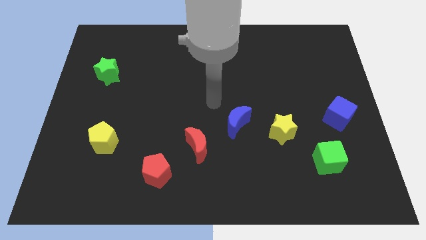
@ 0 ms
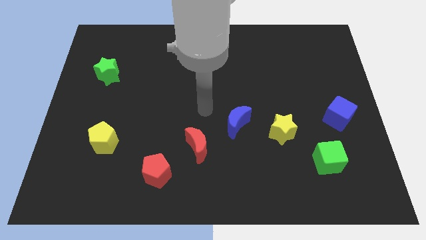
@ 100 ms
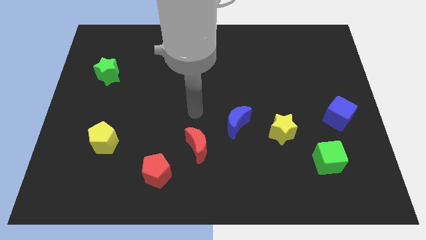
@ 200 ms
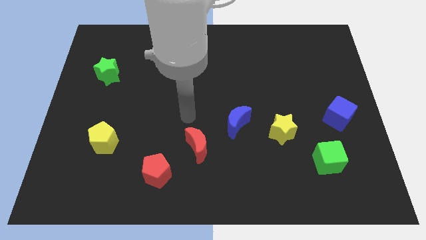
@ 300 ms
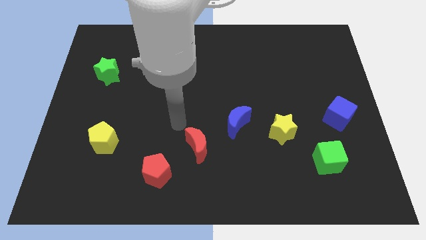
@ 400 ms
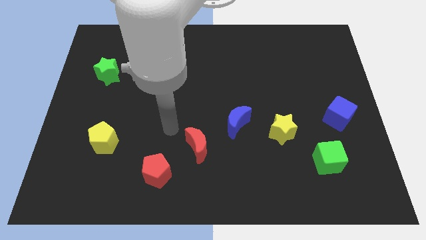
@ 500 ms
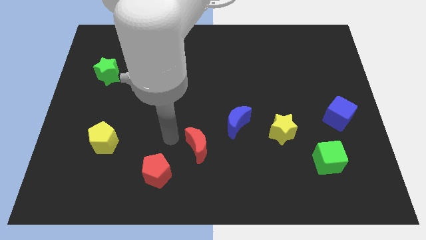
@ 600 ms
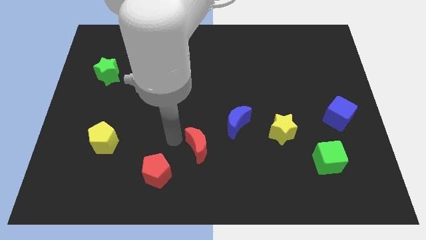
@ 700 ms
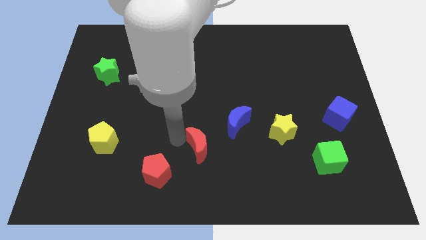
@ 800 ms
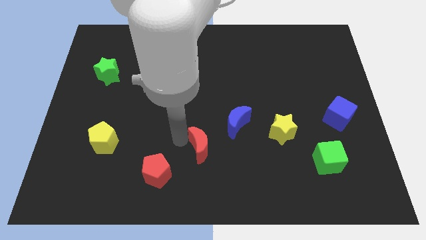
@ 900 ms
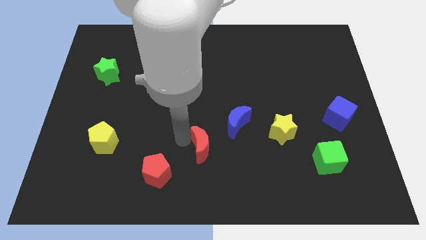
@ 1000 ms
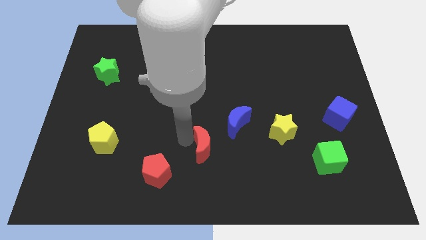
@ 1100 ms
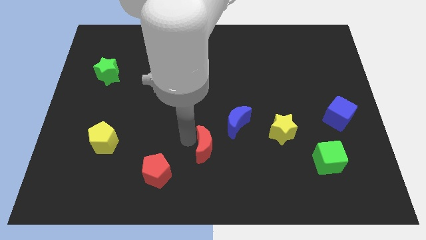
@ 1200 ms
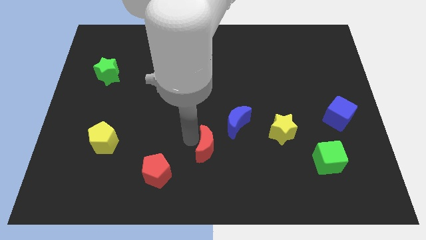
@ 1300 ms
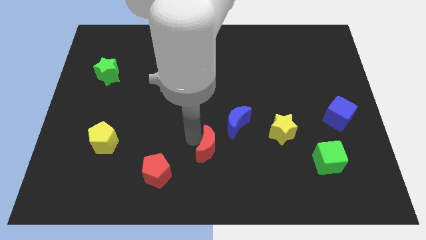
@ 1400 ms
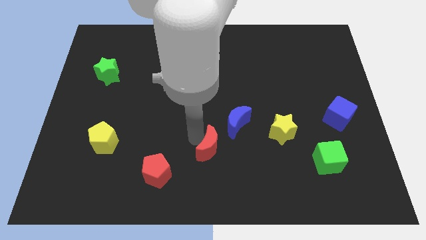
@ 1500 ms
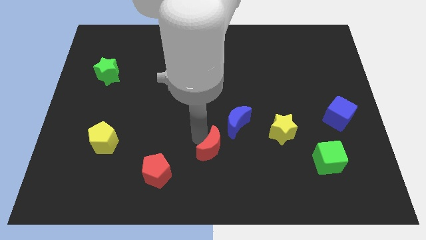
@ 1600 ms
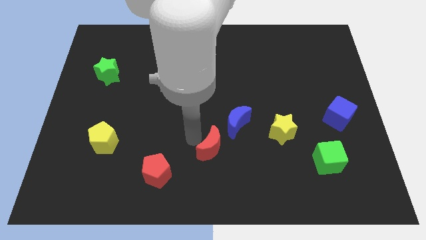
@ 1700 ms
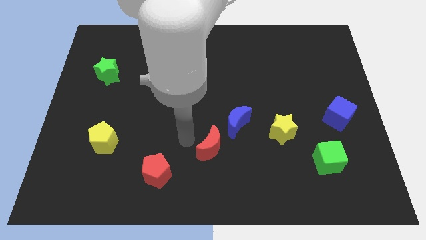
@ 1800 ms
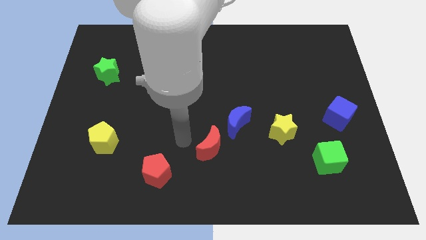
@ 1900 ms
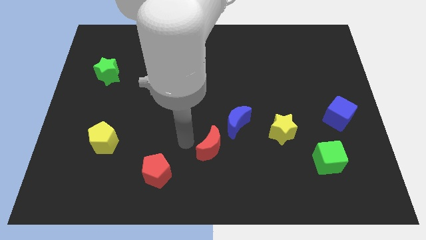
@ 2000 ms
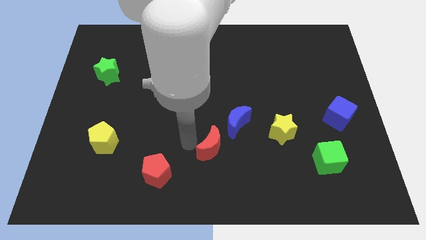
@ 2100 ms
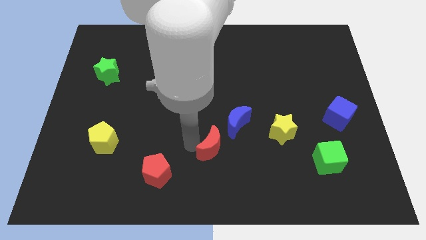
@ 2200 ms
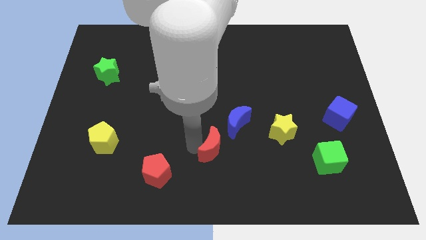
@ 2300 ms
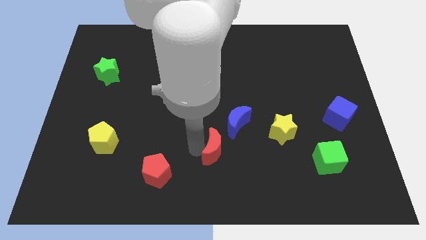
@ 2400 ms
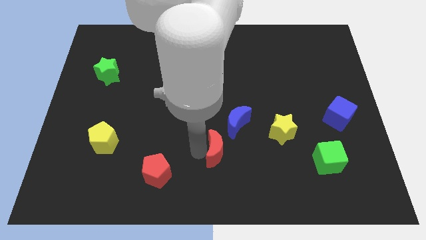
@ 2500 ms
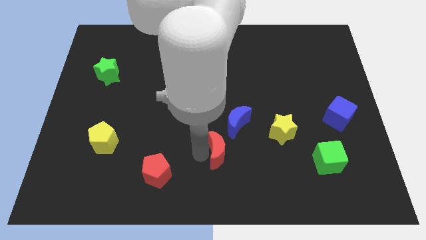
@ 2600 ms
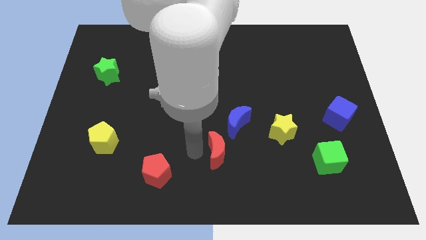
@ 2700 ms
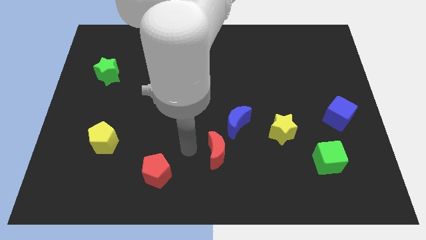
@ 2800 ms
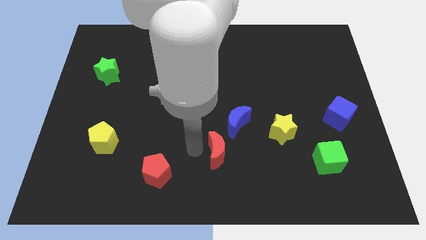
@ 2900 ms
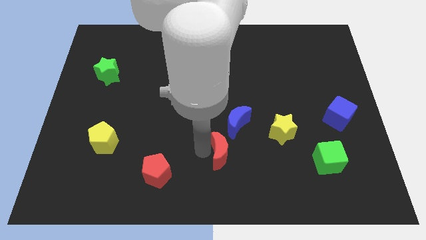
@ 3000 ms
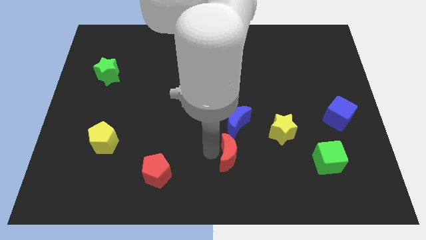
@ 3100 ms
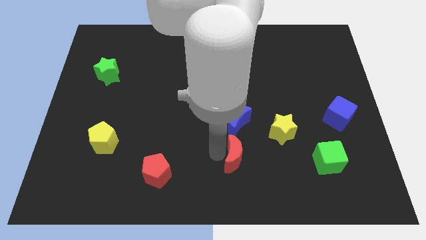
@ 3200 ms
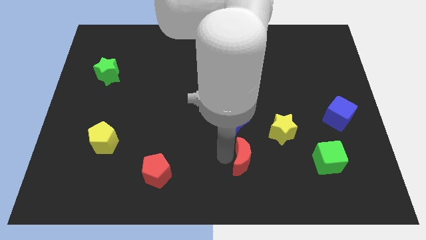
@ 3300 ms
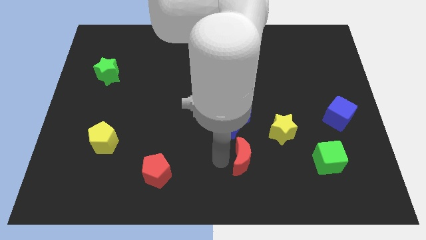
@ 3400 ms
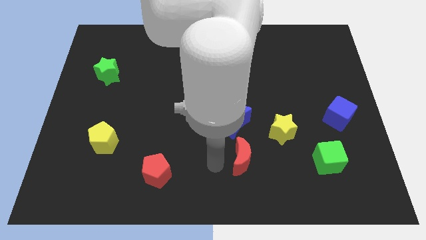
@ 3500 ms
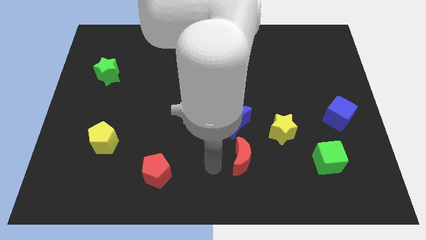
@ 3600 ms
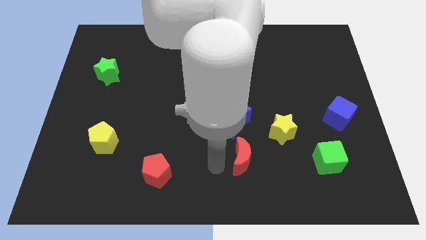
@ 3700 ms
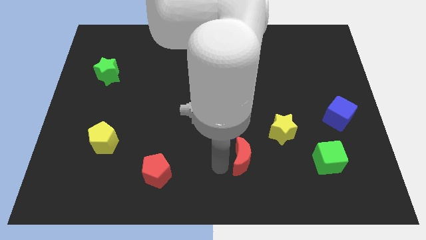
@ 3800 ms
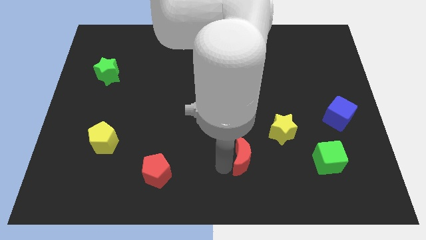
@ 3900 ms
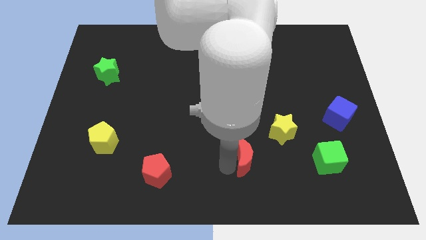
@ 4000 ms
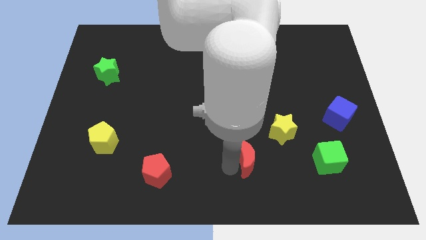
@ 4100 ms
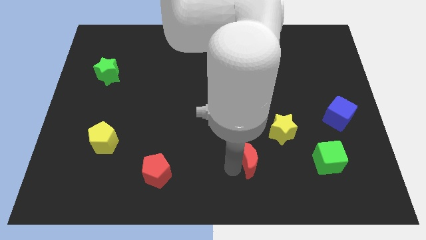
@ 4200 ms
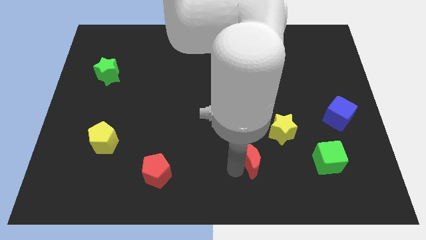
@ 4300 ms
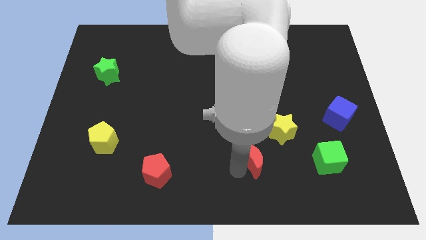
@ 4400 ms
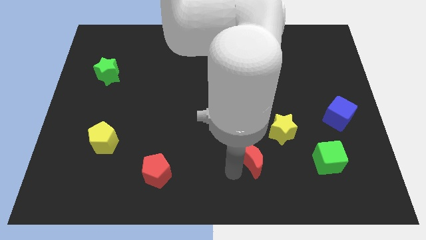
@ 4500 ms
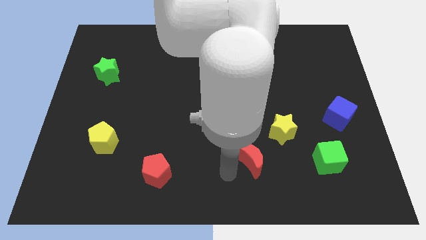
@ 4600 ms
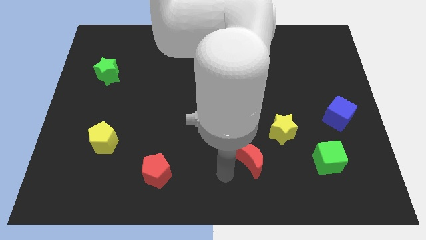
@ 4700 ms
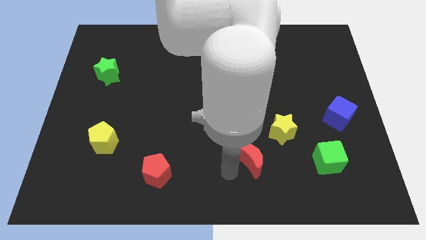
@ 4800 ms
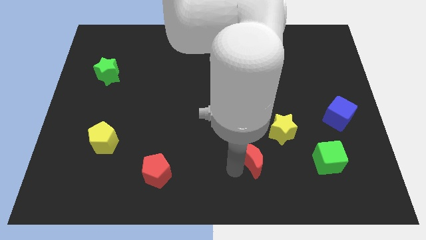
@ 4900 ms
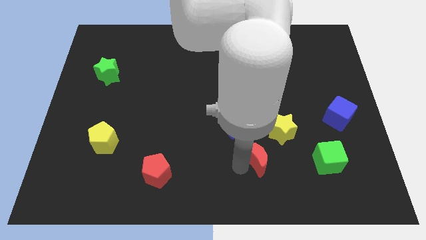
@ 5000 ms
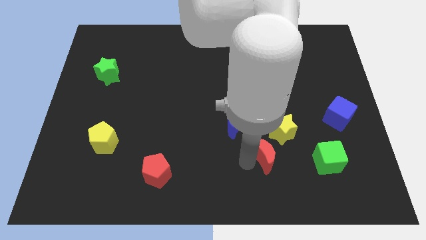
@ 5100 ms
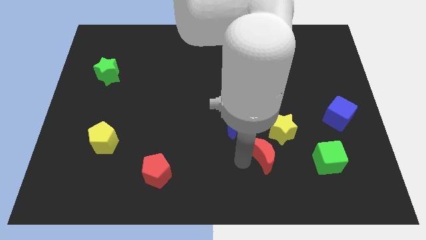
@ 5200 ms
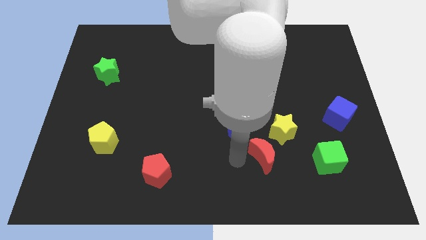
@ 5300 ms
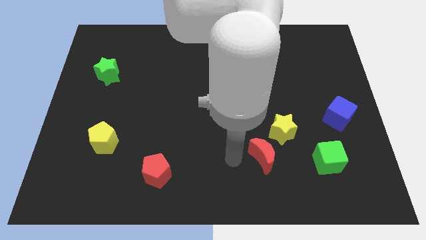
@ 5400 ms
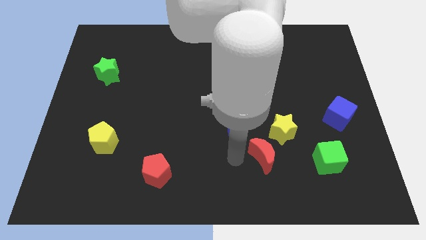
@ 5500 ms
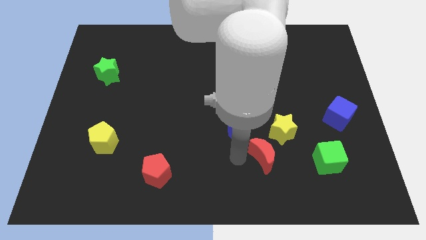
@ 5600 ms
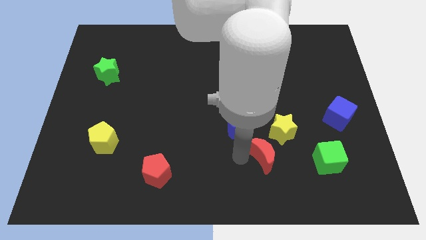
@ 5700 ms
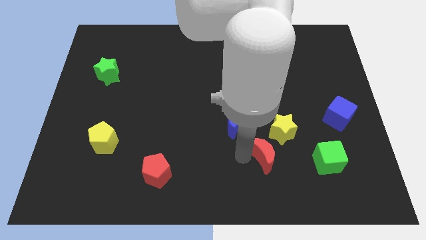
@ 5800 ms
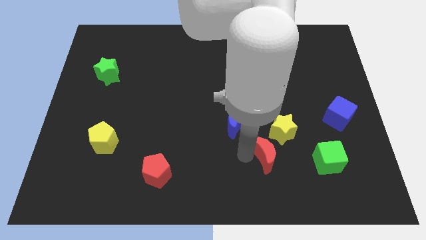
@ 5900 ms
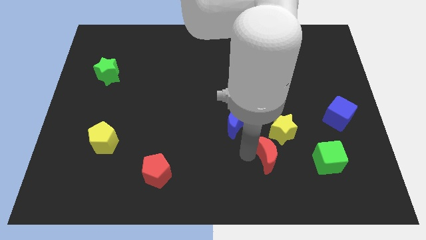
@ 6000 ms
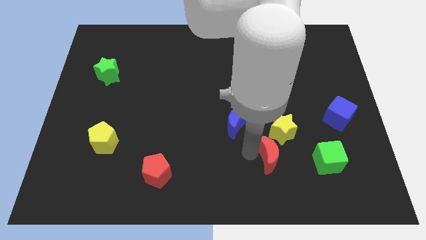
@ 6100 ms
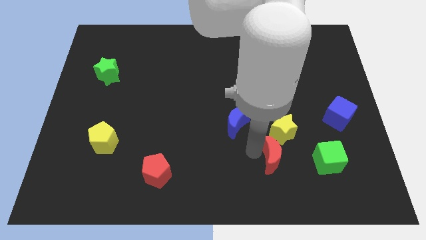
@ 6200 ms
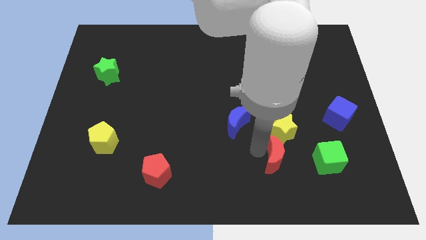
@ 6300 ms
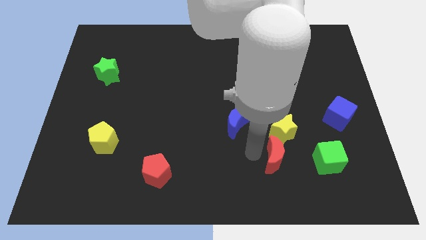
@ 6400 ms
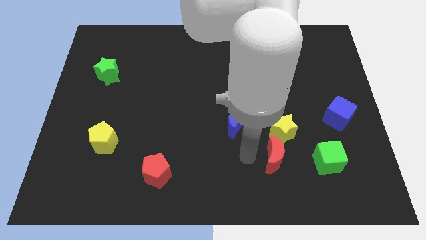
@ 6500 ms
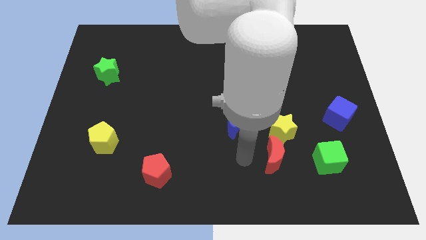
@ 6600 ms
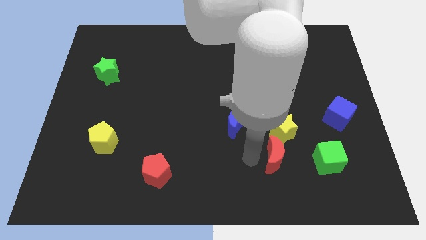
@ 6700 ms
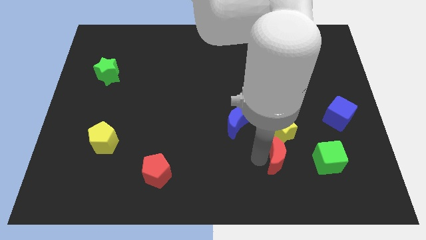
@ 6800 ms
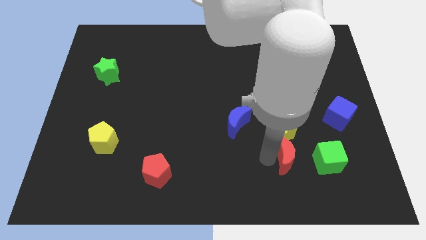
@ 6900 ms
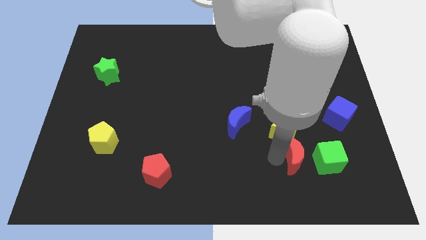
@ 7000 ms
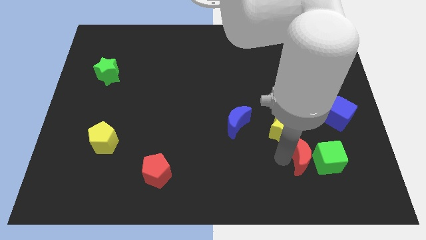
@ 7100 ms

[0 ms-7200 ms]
move the red moon next to the green cube

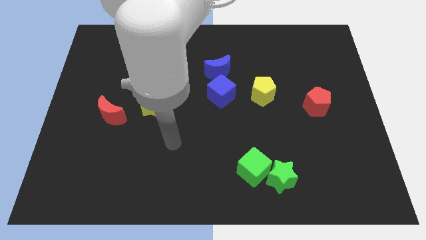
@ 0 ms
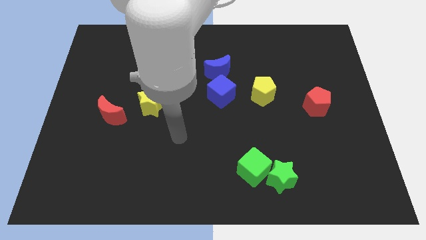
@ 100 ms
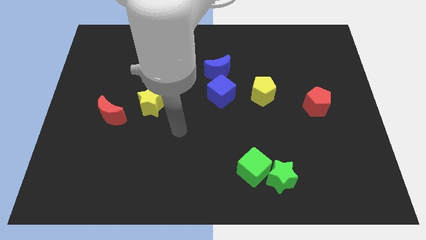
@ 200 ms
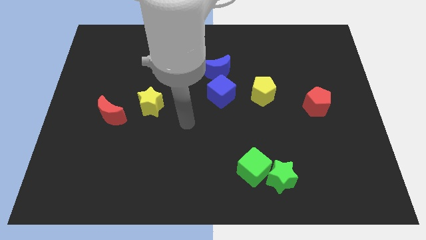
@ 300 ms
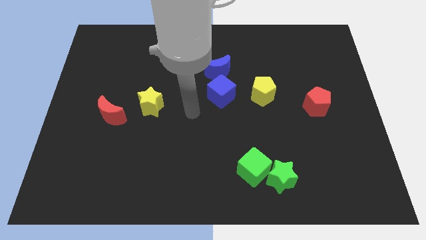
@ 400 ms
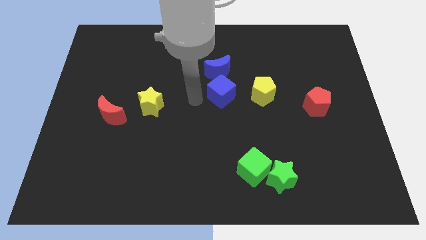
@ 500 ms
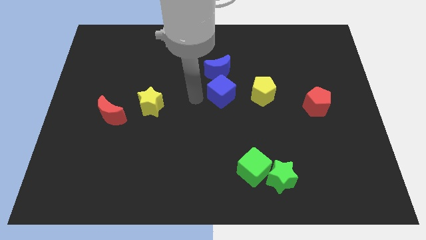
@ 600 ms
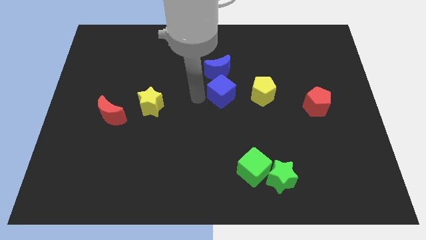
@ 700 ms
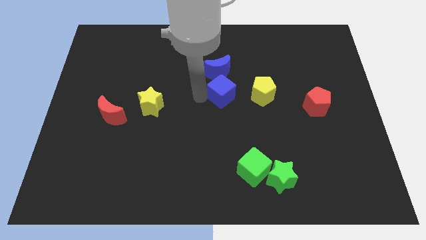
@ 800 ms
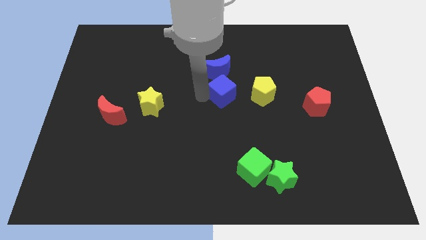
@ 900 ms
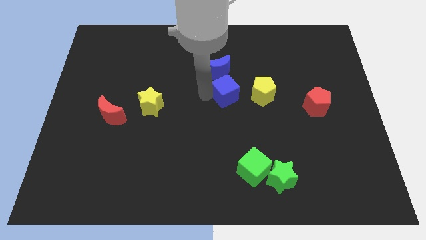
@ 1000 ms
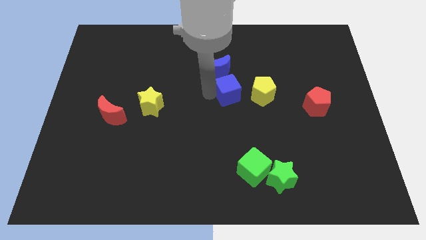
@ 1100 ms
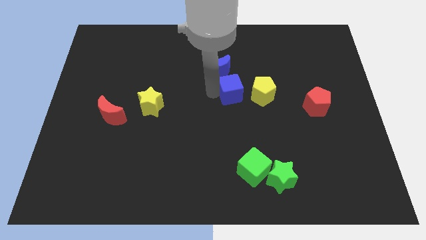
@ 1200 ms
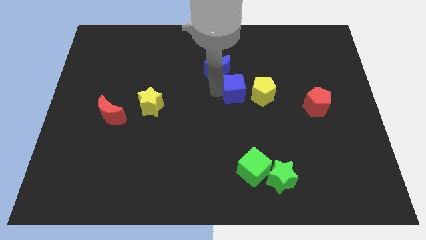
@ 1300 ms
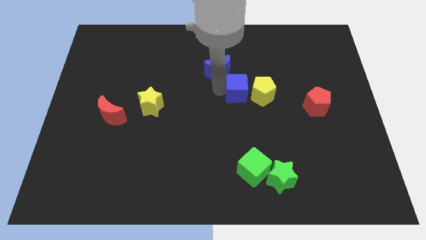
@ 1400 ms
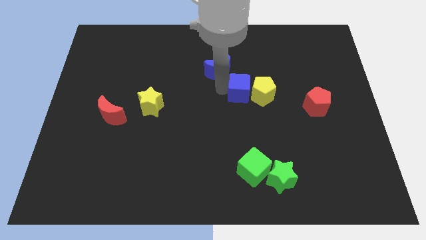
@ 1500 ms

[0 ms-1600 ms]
slide the blue cube towards the yellow pentagon
